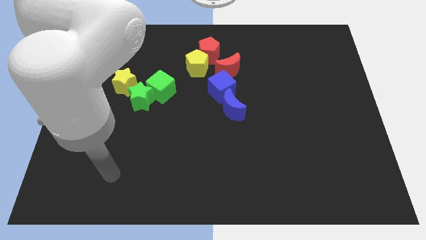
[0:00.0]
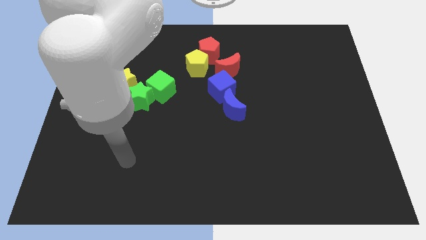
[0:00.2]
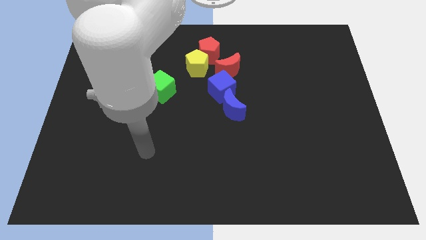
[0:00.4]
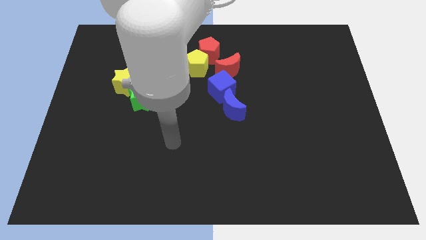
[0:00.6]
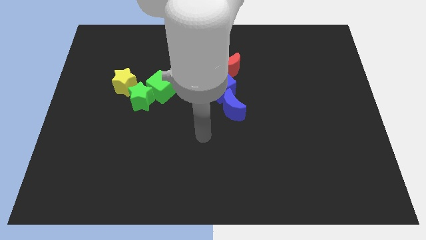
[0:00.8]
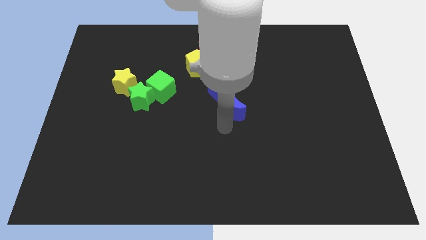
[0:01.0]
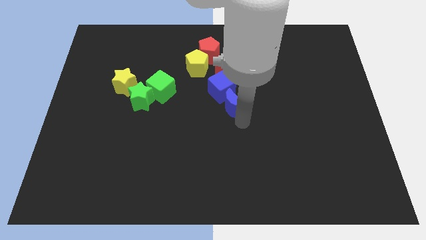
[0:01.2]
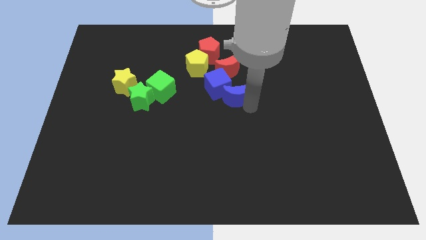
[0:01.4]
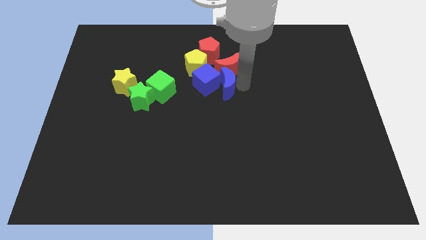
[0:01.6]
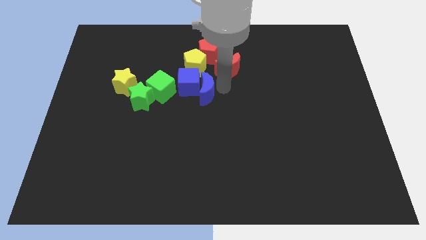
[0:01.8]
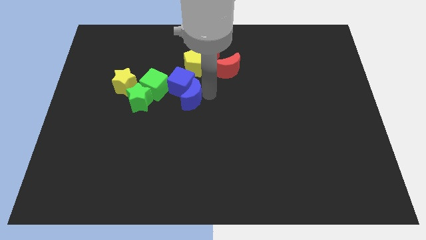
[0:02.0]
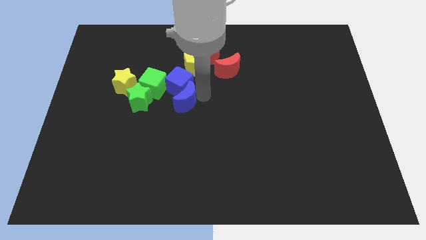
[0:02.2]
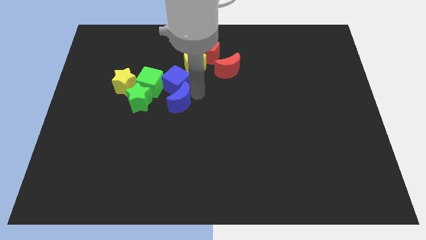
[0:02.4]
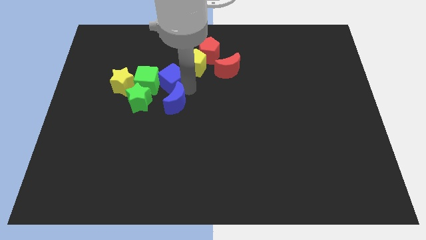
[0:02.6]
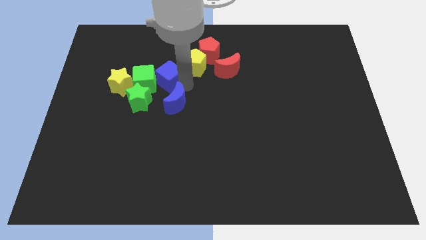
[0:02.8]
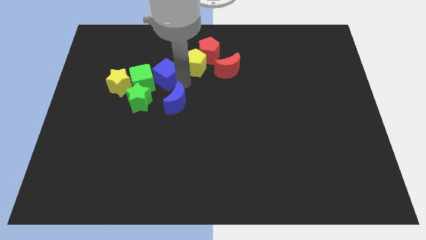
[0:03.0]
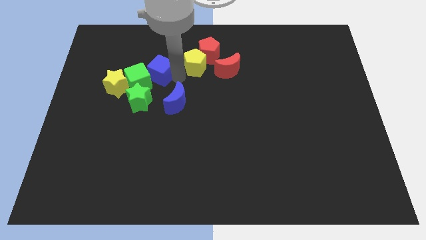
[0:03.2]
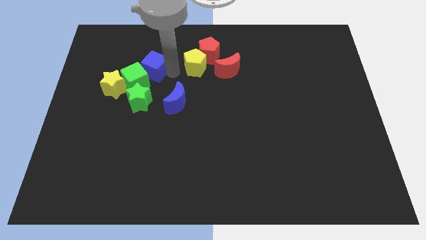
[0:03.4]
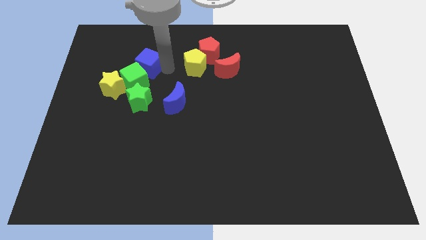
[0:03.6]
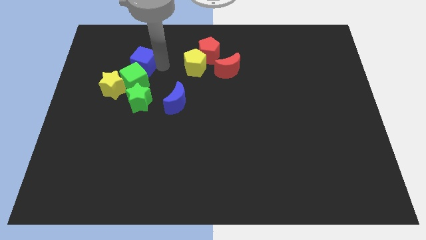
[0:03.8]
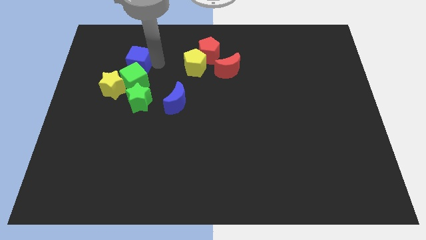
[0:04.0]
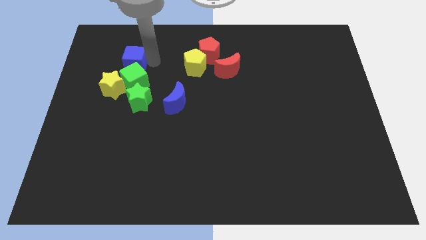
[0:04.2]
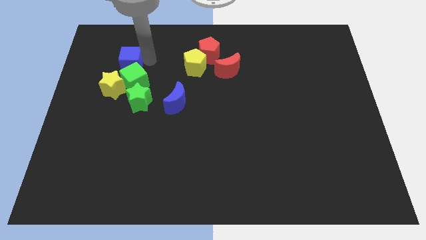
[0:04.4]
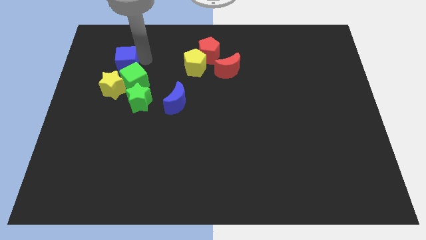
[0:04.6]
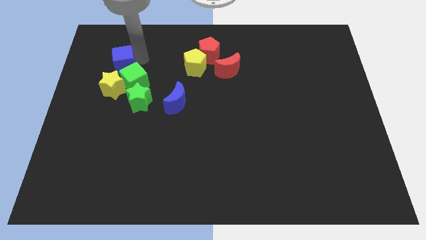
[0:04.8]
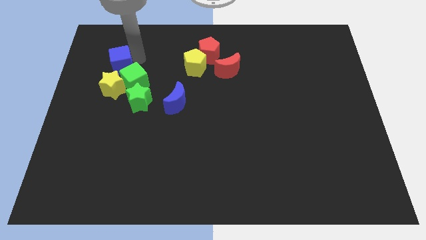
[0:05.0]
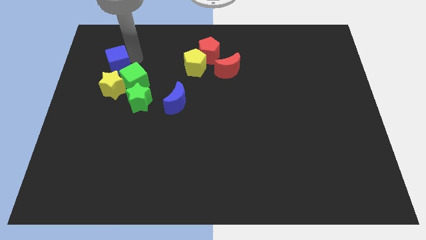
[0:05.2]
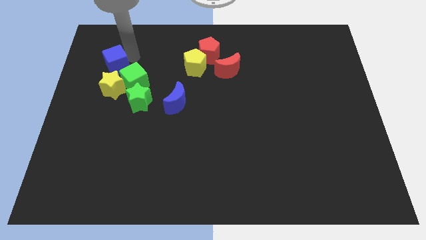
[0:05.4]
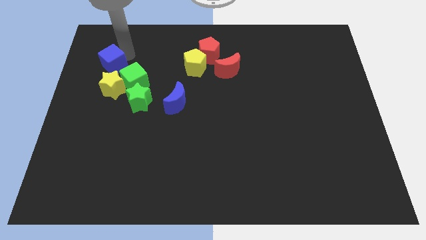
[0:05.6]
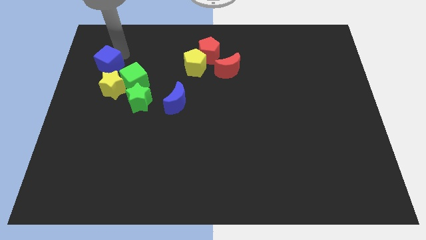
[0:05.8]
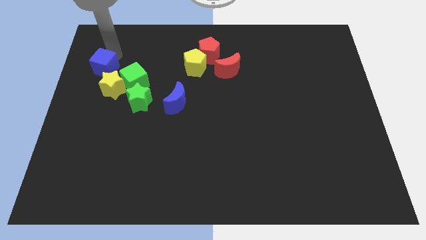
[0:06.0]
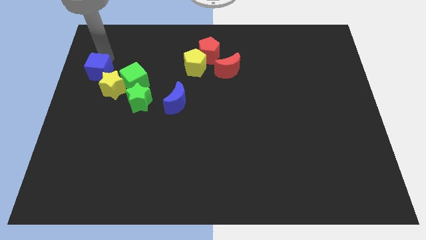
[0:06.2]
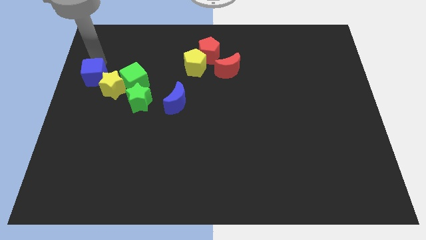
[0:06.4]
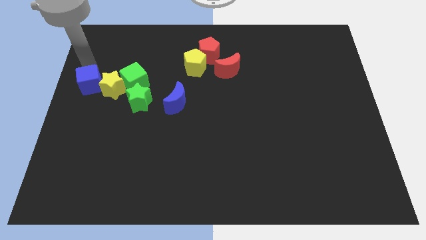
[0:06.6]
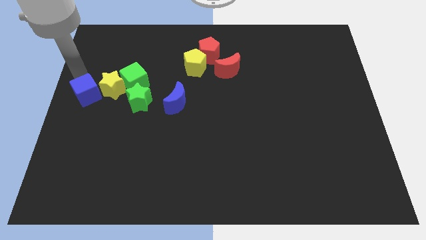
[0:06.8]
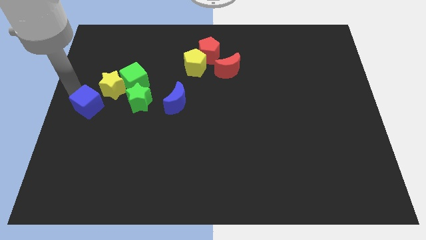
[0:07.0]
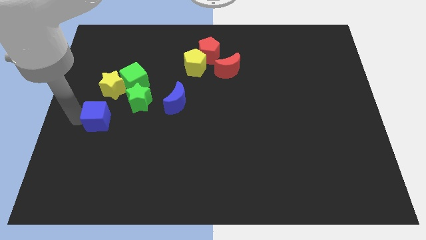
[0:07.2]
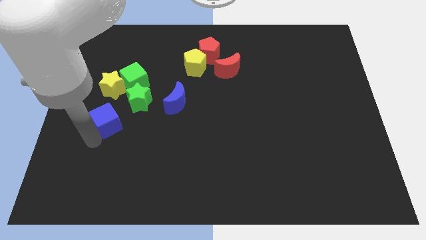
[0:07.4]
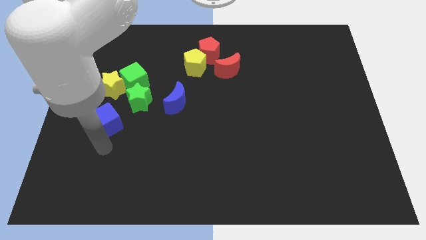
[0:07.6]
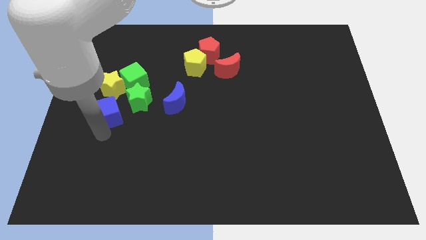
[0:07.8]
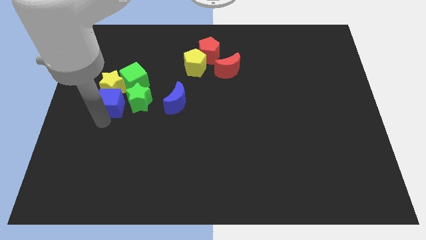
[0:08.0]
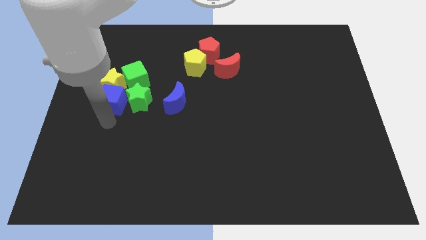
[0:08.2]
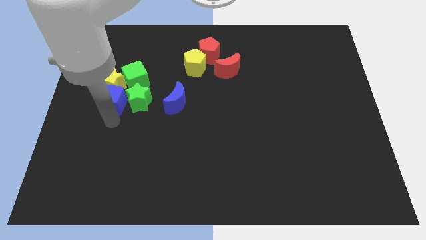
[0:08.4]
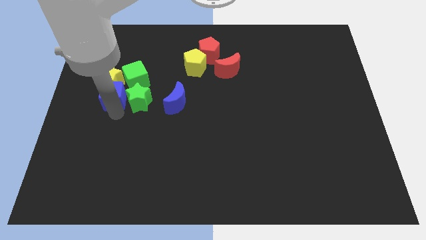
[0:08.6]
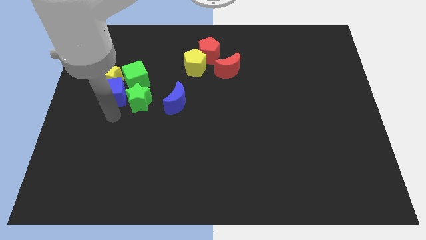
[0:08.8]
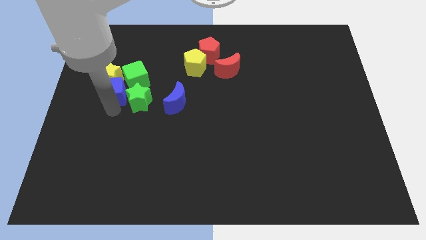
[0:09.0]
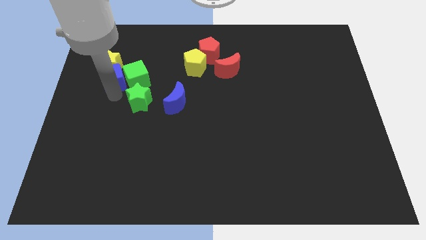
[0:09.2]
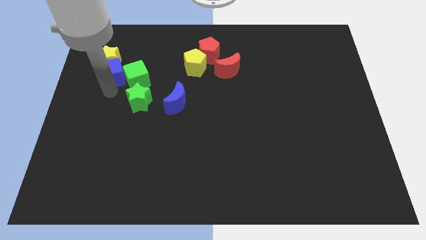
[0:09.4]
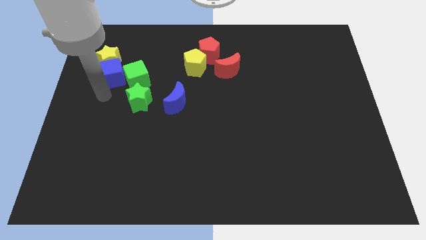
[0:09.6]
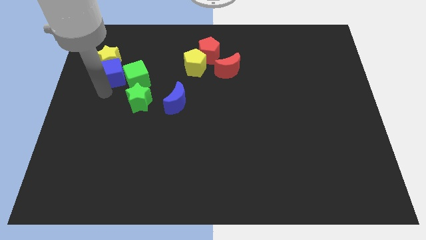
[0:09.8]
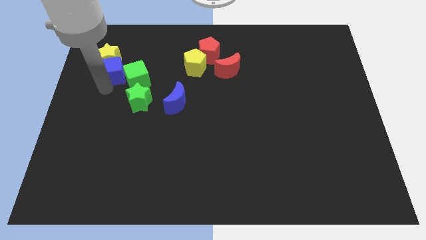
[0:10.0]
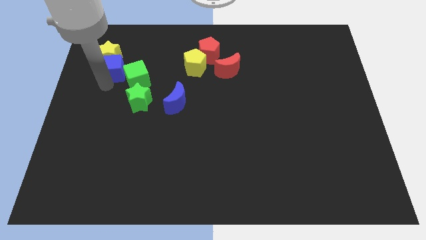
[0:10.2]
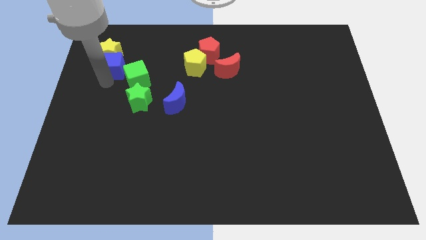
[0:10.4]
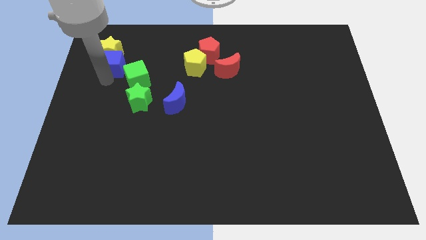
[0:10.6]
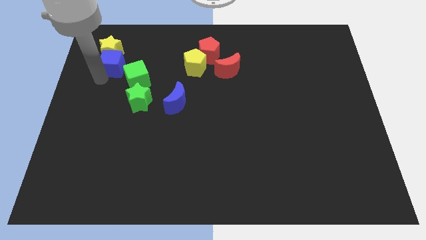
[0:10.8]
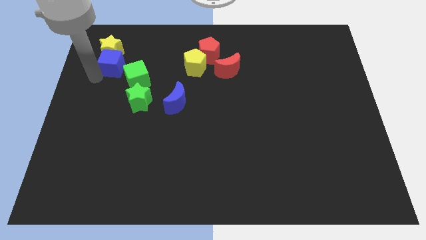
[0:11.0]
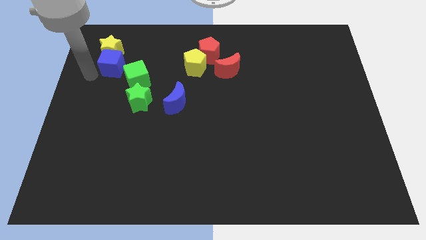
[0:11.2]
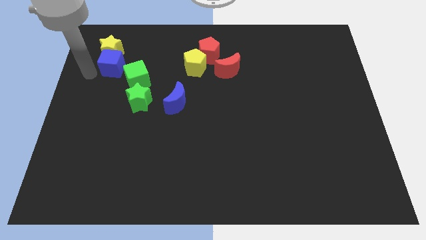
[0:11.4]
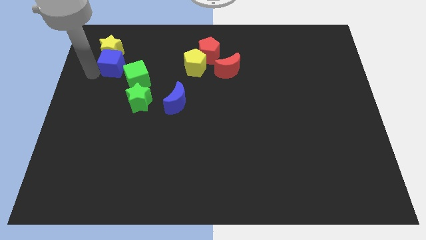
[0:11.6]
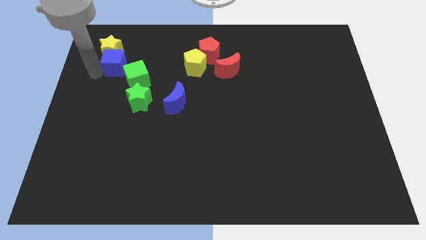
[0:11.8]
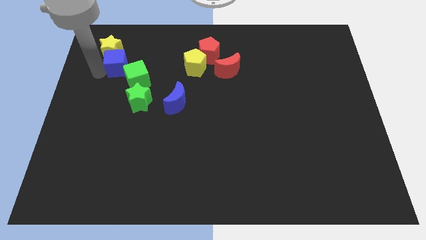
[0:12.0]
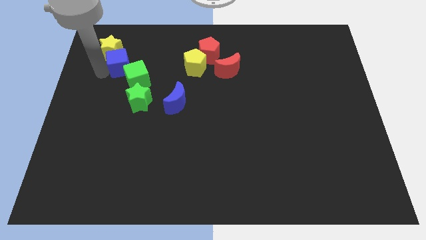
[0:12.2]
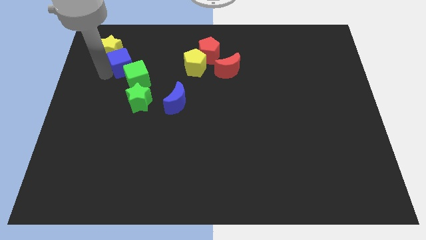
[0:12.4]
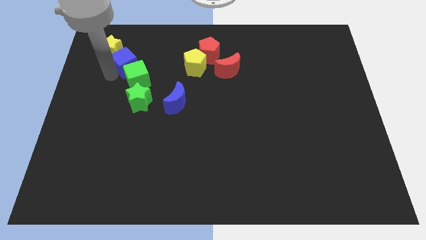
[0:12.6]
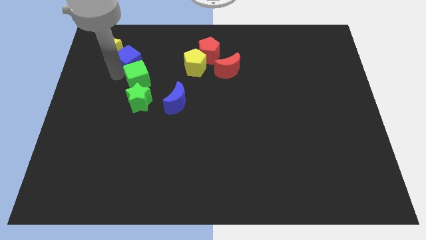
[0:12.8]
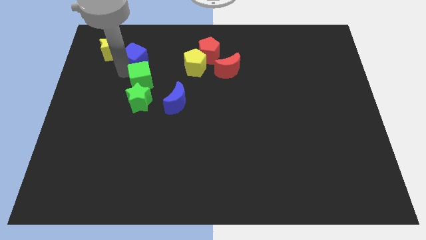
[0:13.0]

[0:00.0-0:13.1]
slide the blue cube diagonally up and to the left of the green cube

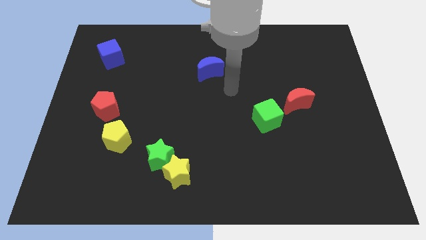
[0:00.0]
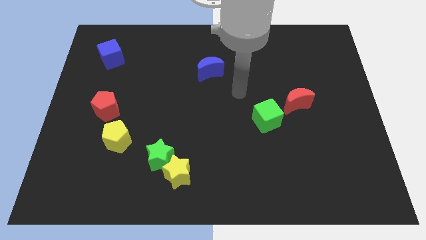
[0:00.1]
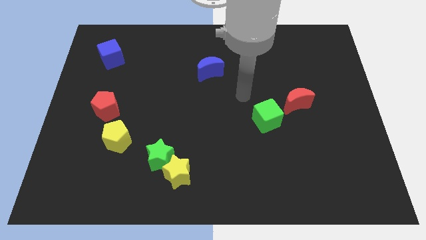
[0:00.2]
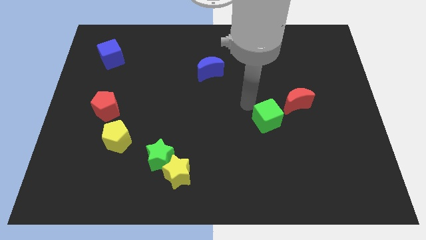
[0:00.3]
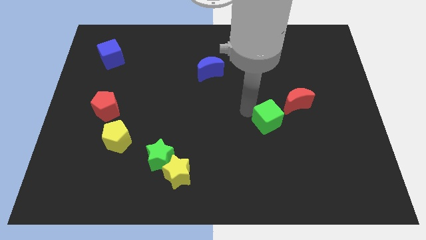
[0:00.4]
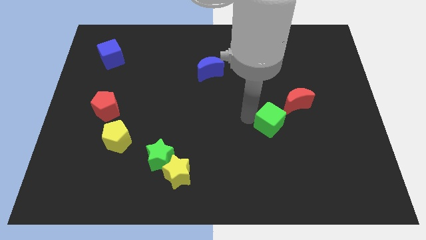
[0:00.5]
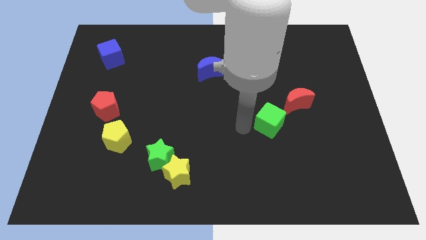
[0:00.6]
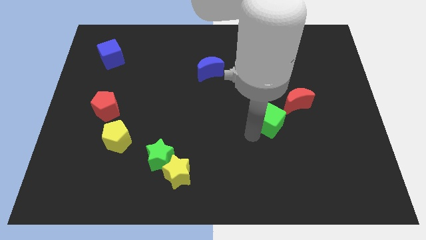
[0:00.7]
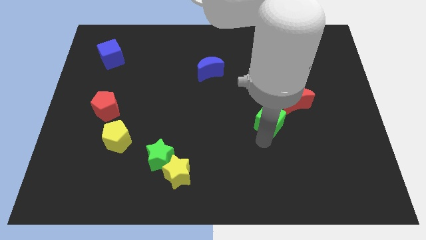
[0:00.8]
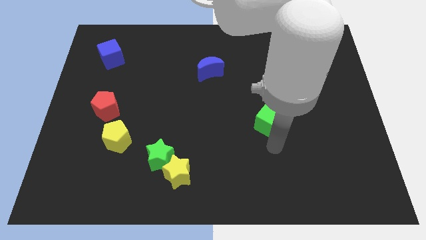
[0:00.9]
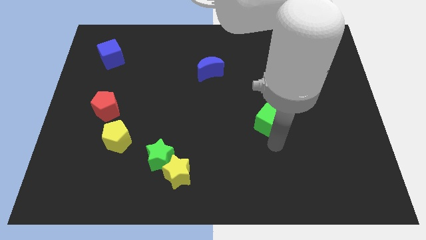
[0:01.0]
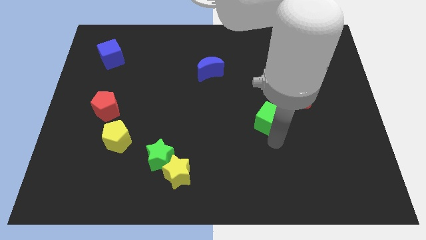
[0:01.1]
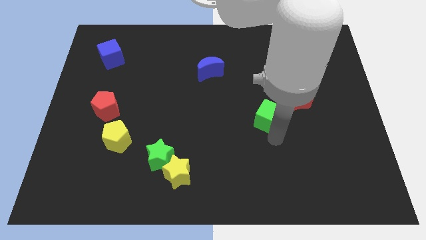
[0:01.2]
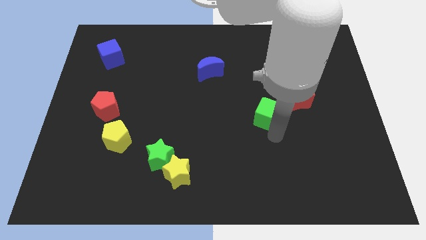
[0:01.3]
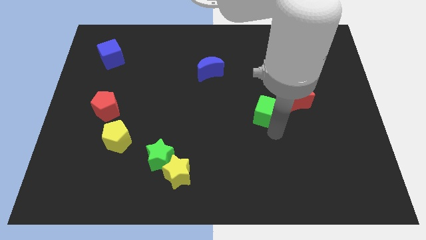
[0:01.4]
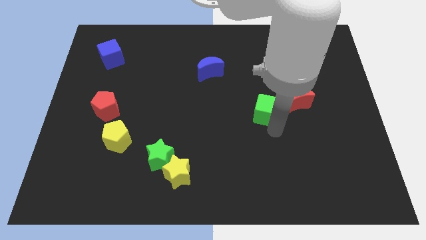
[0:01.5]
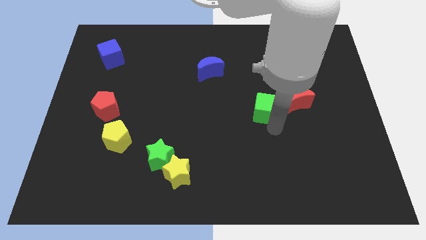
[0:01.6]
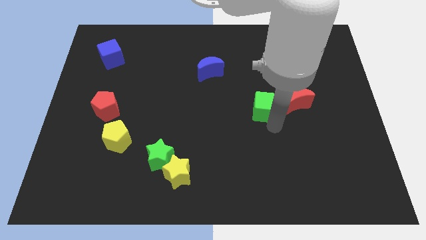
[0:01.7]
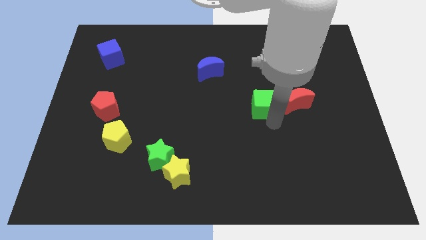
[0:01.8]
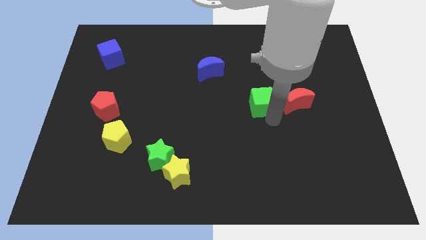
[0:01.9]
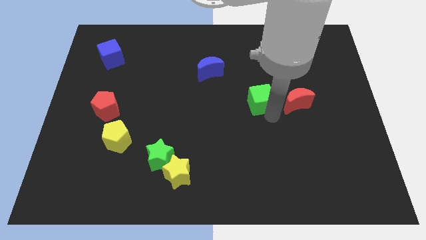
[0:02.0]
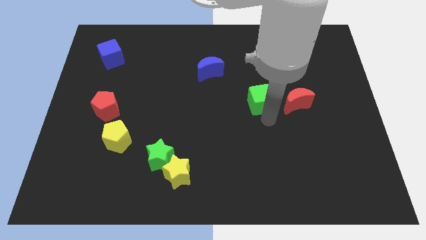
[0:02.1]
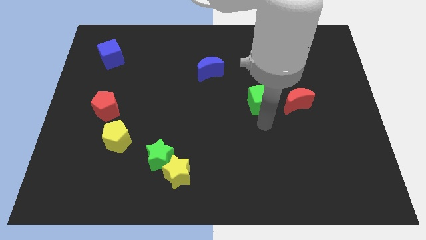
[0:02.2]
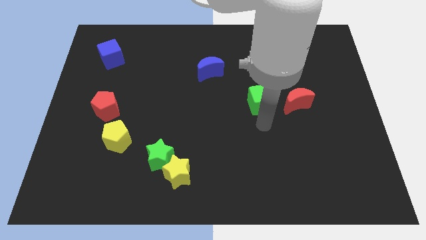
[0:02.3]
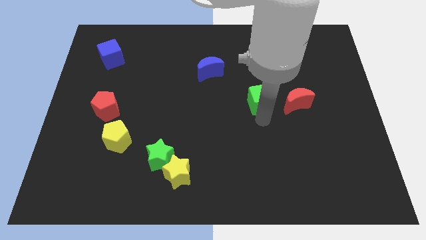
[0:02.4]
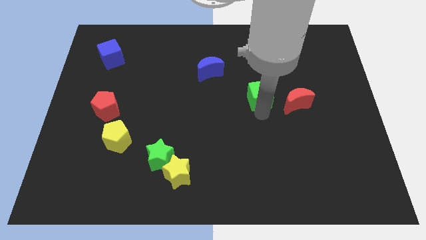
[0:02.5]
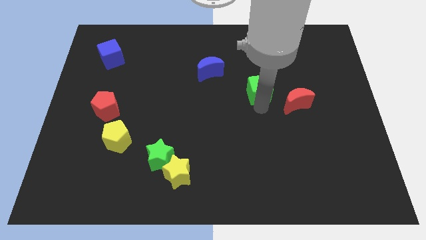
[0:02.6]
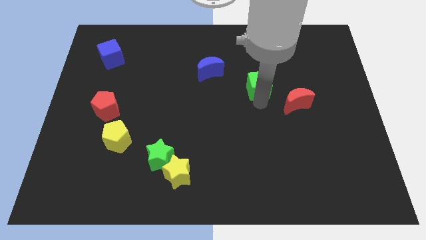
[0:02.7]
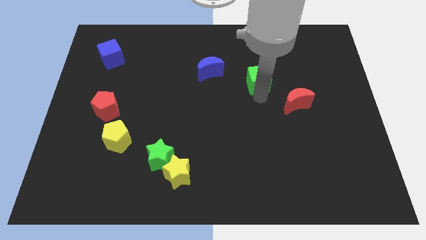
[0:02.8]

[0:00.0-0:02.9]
put the green cube just right of the blue moon
